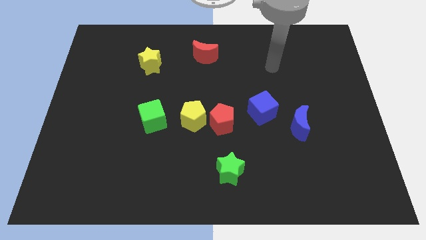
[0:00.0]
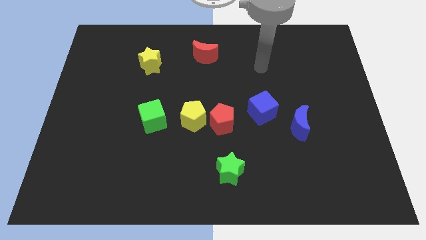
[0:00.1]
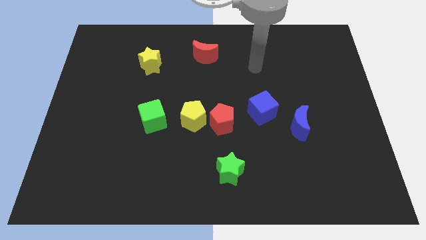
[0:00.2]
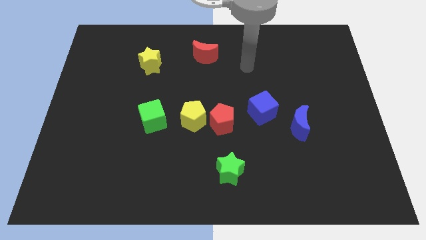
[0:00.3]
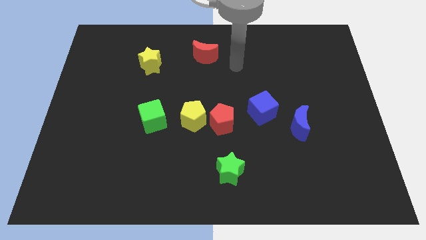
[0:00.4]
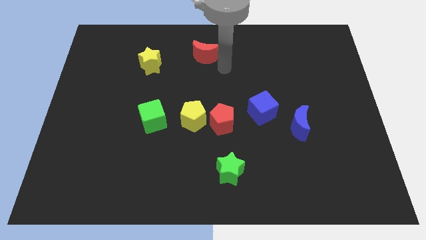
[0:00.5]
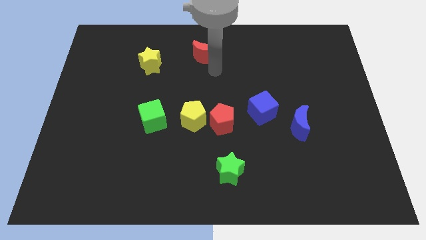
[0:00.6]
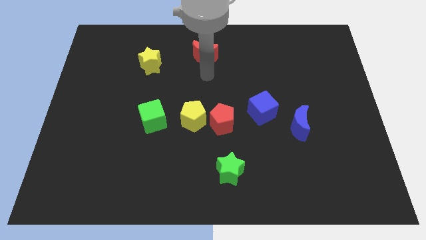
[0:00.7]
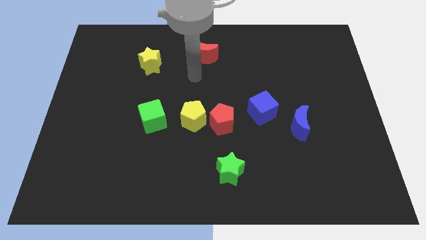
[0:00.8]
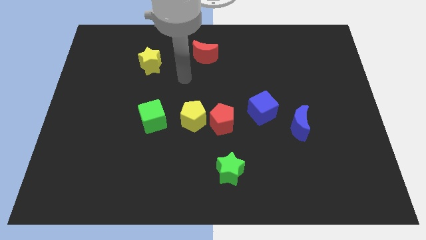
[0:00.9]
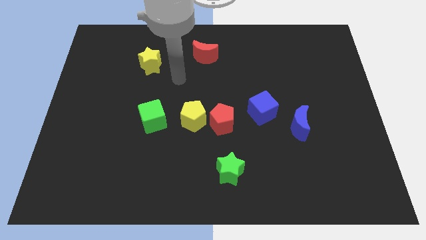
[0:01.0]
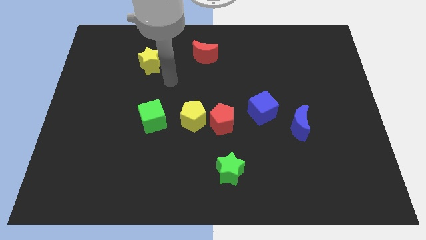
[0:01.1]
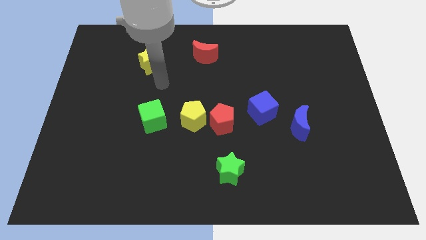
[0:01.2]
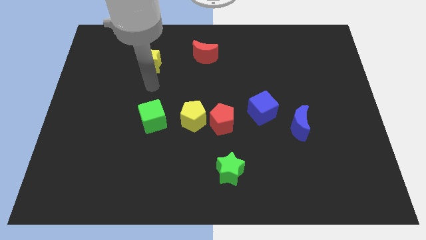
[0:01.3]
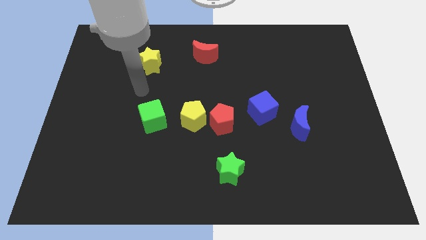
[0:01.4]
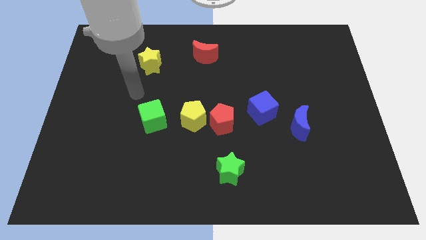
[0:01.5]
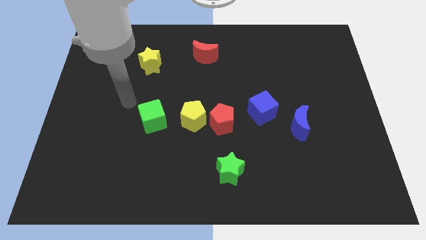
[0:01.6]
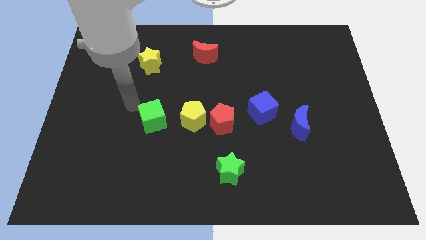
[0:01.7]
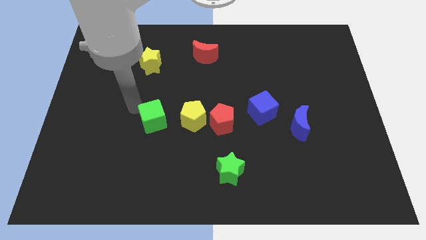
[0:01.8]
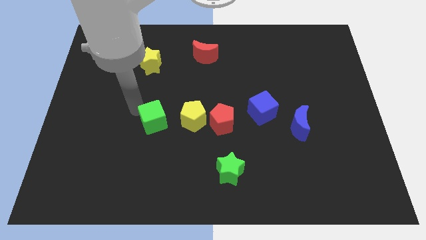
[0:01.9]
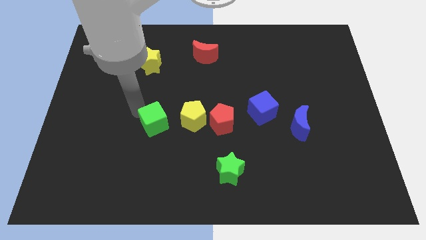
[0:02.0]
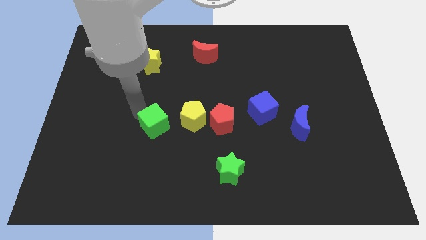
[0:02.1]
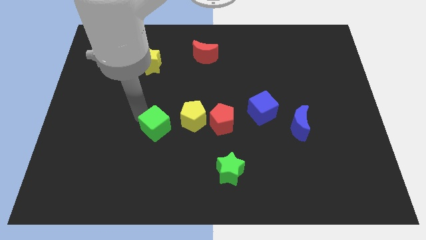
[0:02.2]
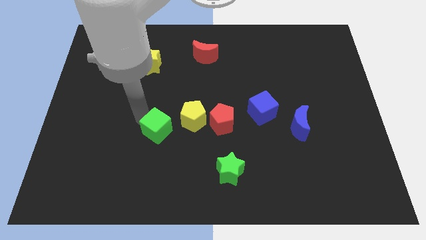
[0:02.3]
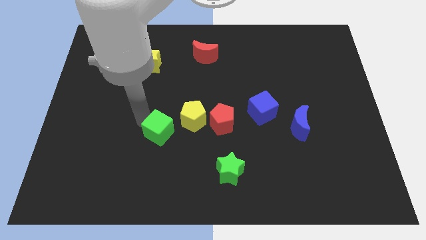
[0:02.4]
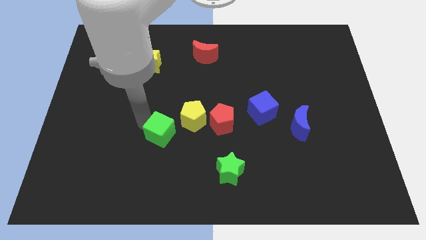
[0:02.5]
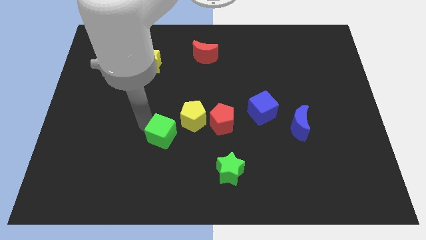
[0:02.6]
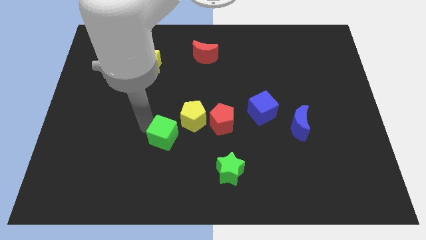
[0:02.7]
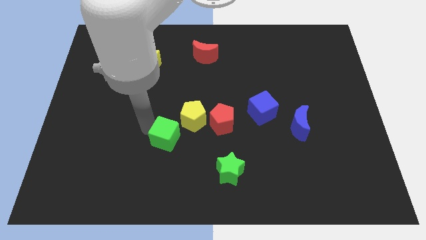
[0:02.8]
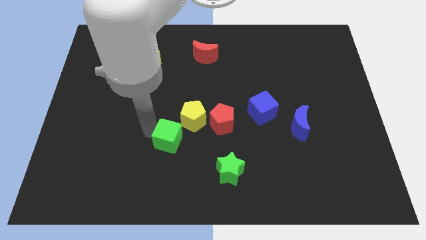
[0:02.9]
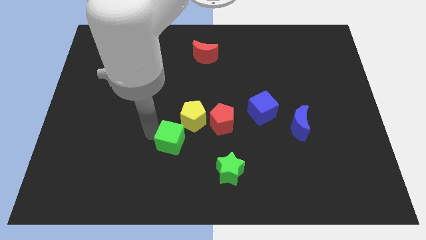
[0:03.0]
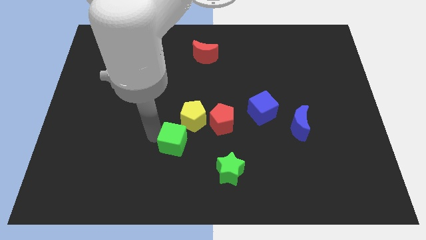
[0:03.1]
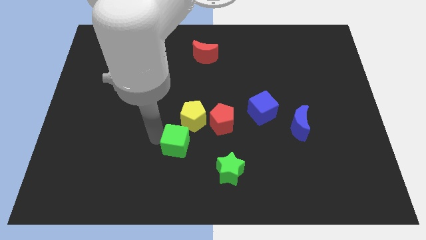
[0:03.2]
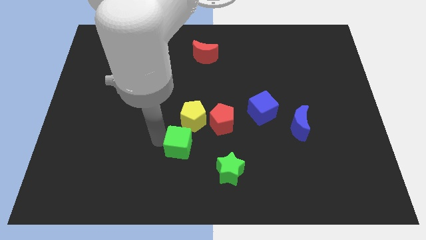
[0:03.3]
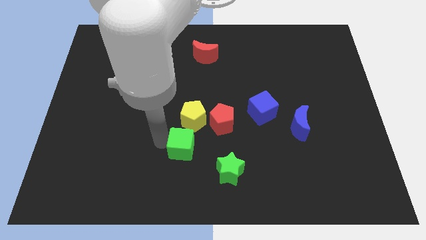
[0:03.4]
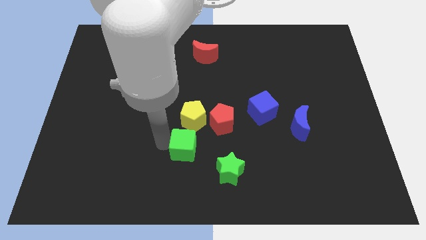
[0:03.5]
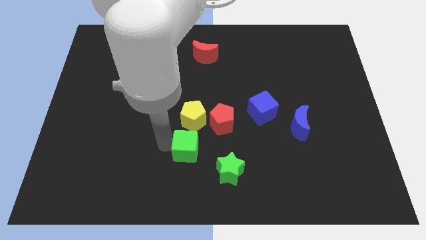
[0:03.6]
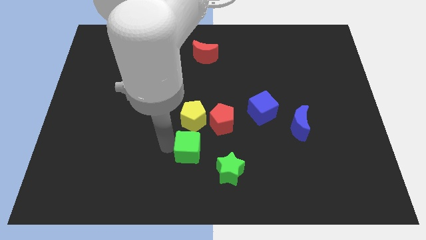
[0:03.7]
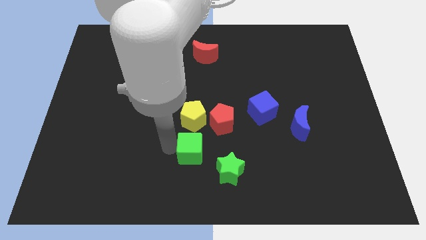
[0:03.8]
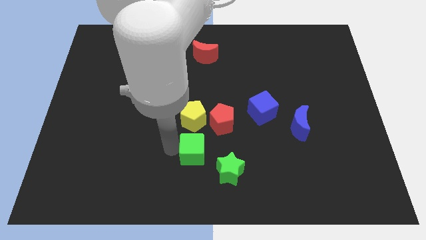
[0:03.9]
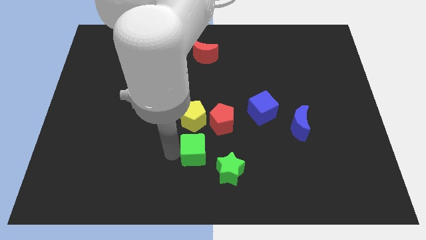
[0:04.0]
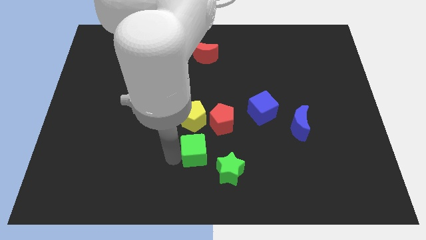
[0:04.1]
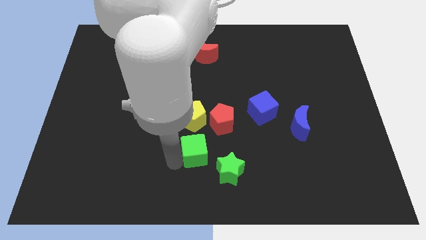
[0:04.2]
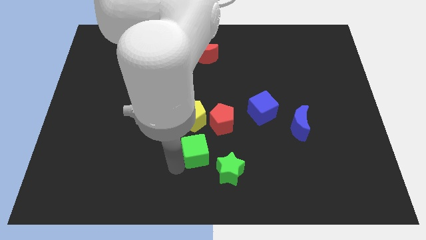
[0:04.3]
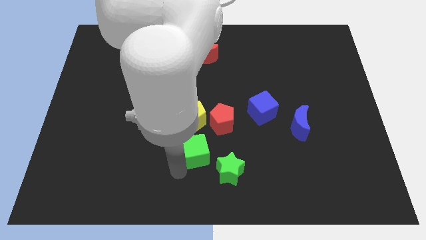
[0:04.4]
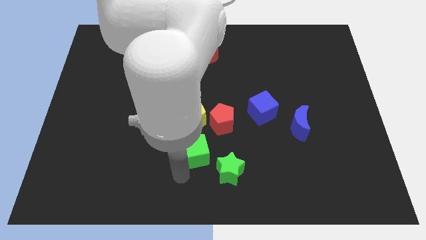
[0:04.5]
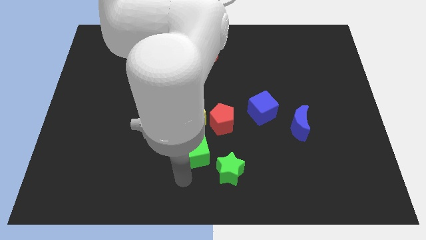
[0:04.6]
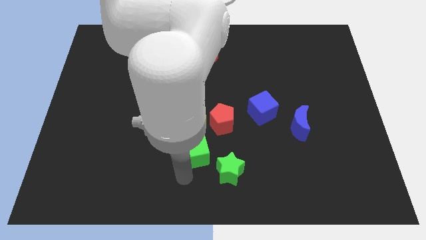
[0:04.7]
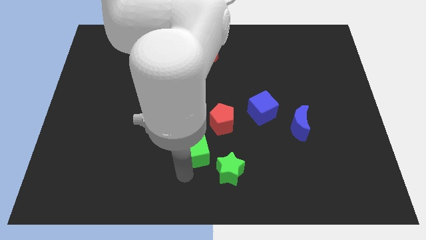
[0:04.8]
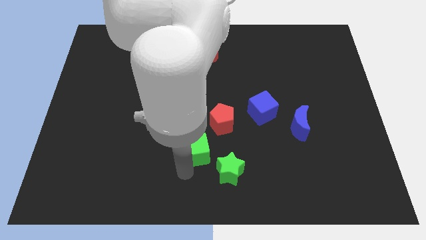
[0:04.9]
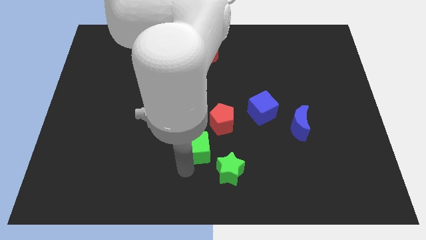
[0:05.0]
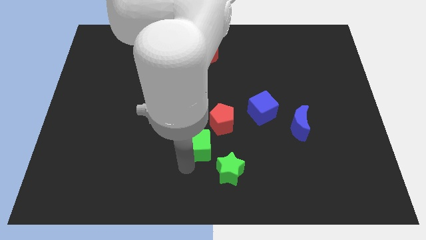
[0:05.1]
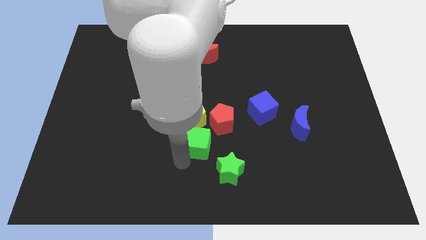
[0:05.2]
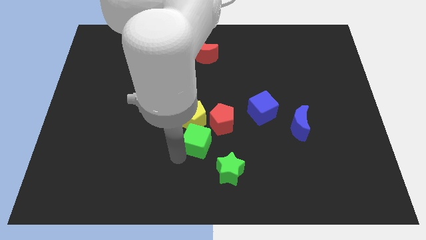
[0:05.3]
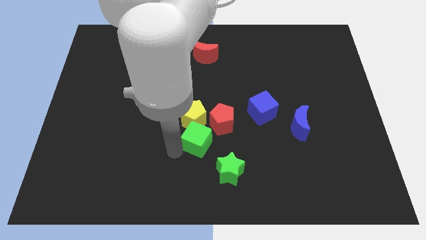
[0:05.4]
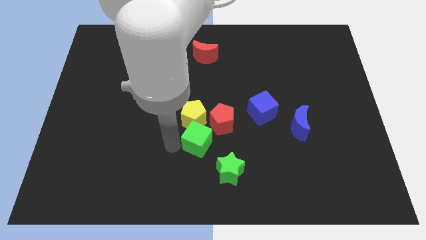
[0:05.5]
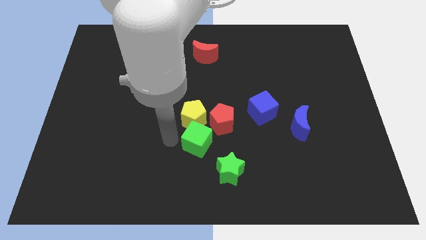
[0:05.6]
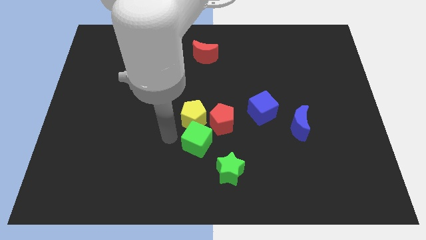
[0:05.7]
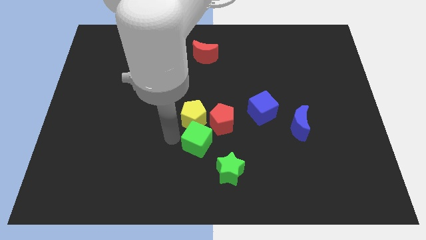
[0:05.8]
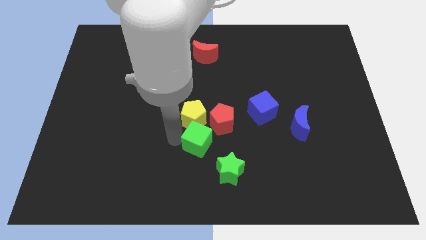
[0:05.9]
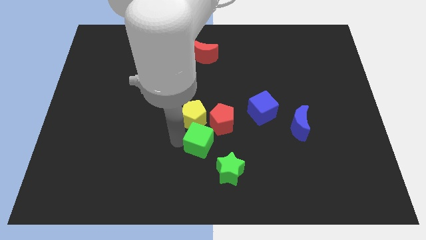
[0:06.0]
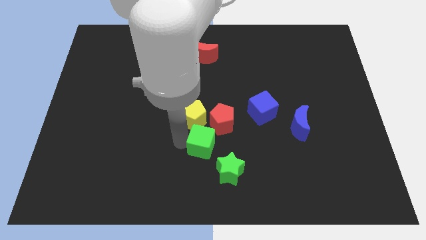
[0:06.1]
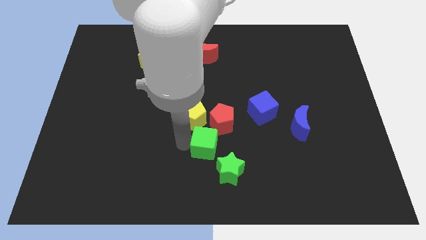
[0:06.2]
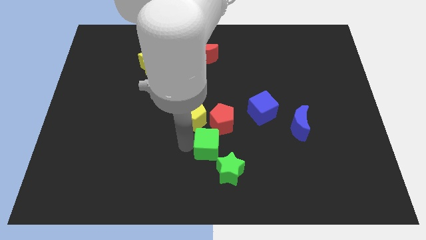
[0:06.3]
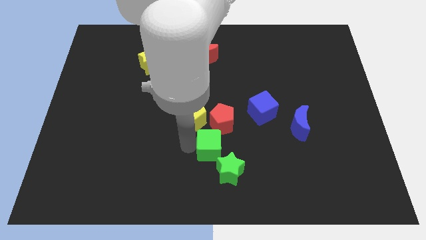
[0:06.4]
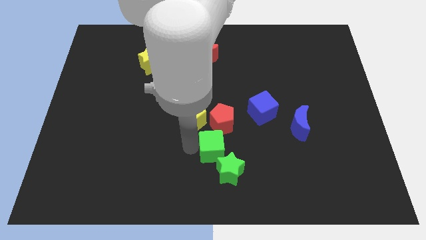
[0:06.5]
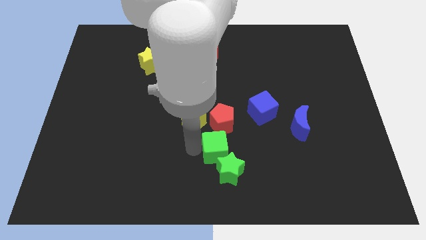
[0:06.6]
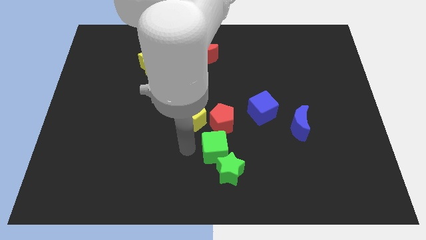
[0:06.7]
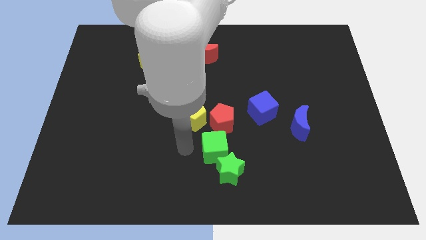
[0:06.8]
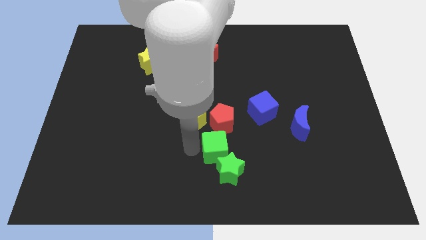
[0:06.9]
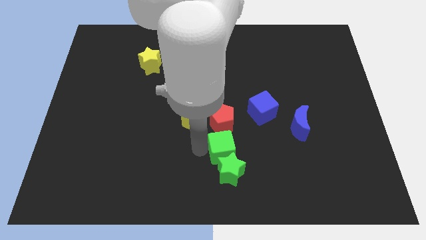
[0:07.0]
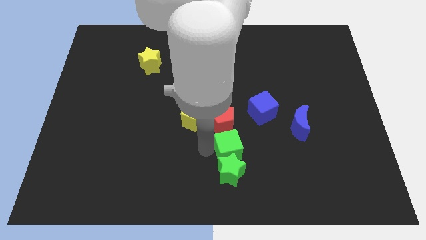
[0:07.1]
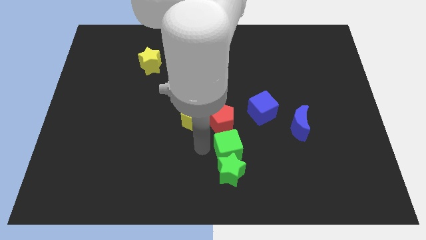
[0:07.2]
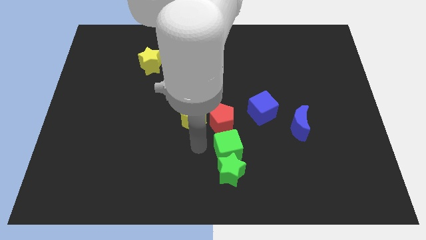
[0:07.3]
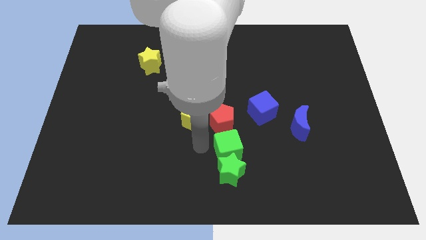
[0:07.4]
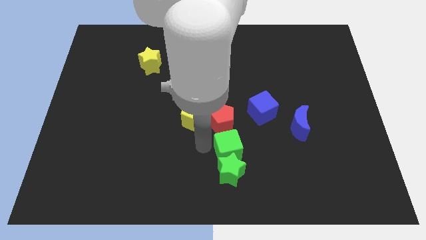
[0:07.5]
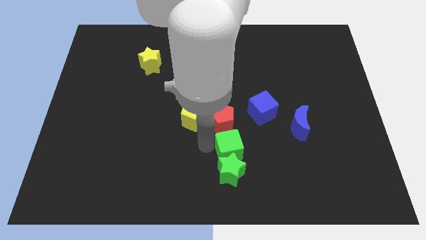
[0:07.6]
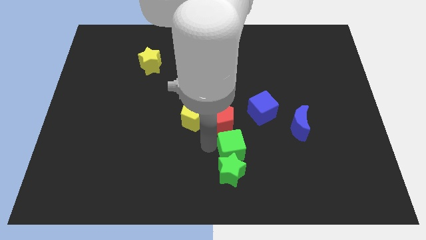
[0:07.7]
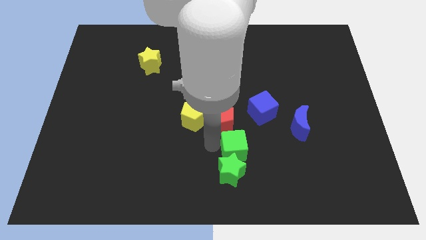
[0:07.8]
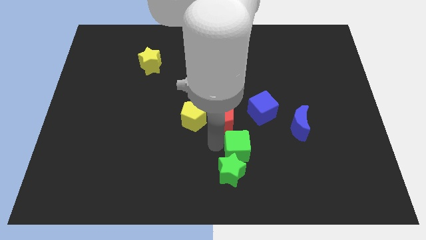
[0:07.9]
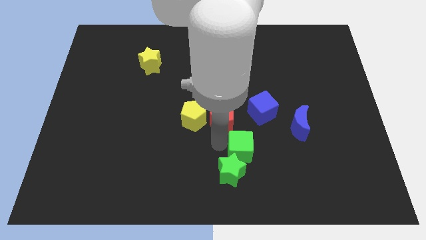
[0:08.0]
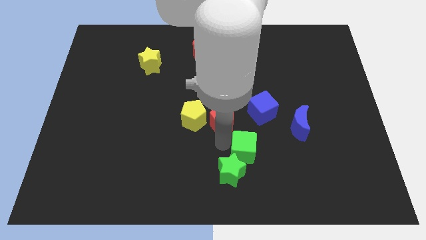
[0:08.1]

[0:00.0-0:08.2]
move the green cube below the blue cube
